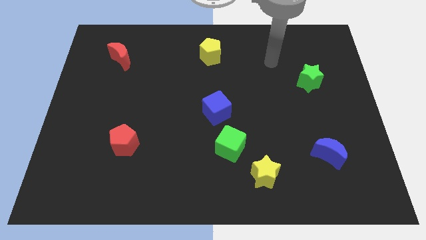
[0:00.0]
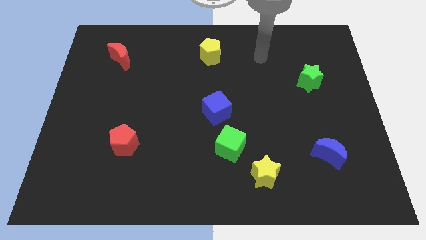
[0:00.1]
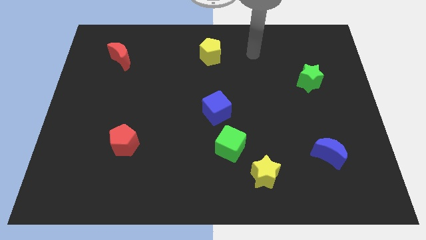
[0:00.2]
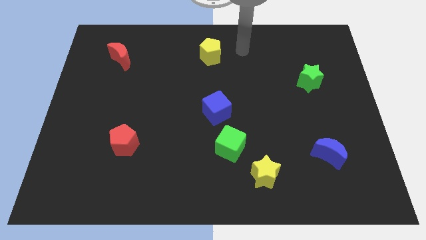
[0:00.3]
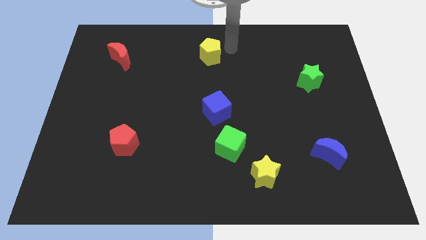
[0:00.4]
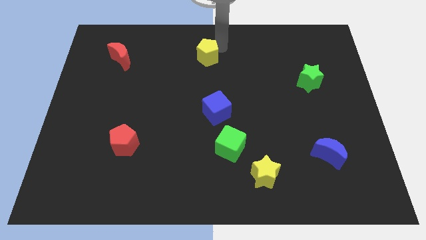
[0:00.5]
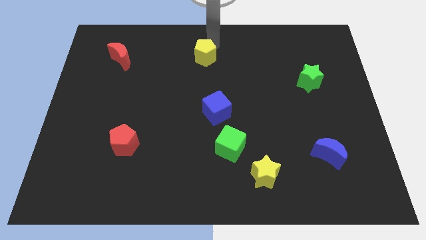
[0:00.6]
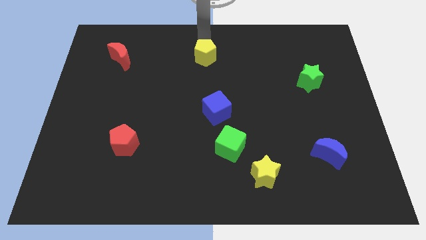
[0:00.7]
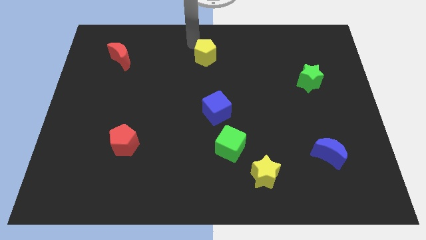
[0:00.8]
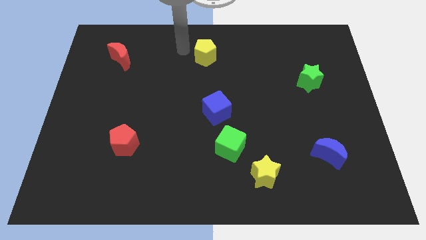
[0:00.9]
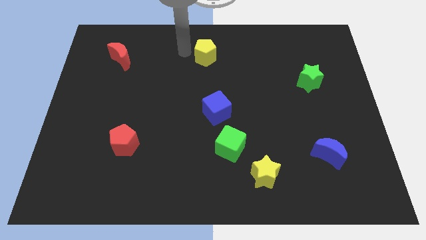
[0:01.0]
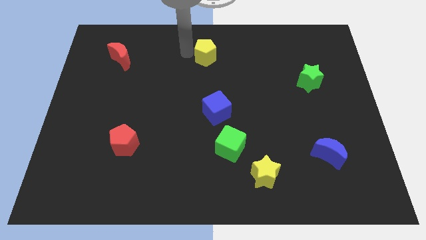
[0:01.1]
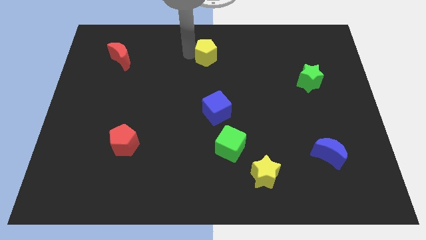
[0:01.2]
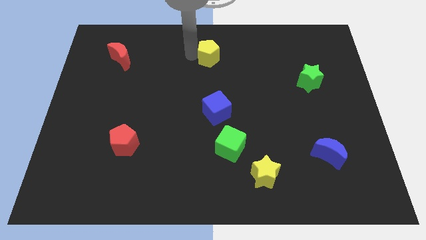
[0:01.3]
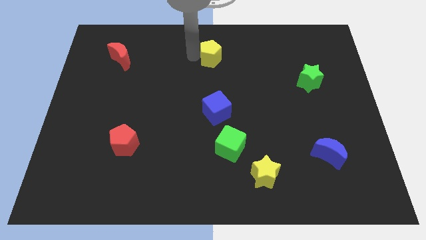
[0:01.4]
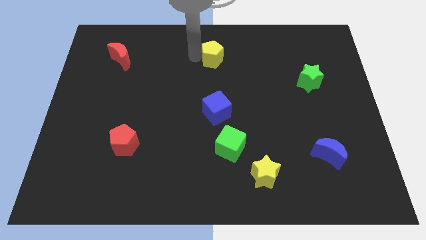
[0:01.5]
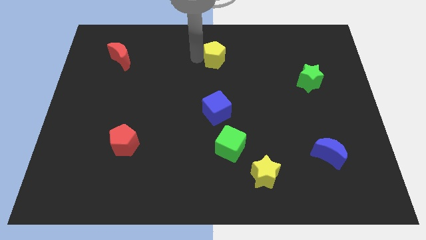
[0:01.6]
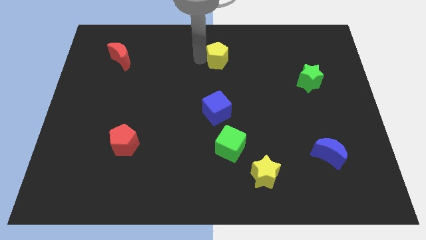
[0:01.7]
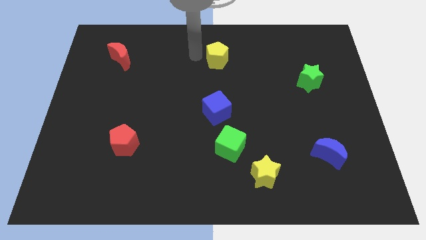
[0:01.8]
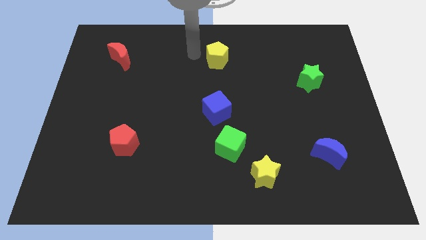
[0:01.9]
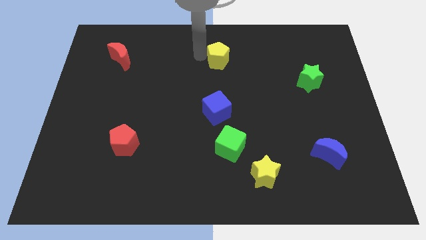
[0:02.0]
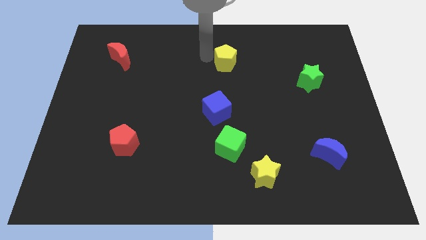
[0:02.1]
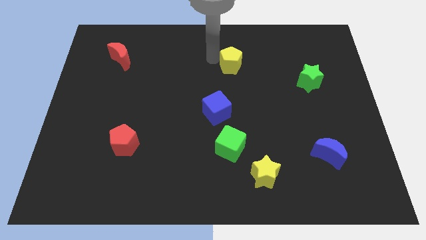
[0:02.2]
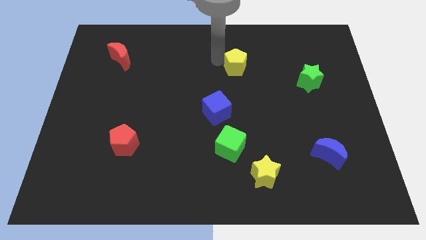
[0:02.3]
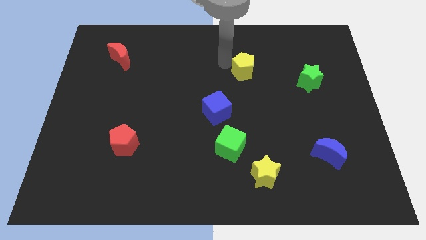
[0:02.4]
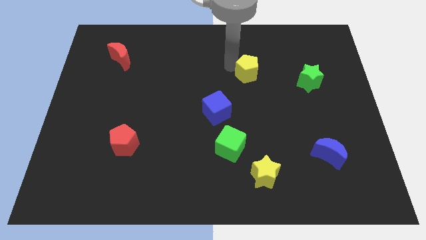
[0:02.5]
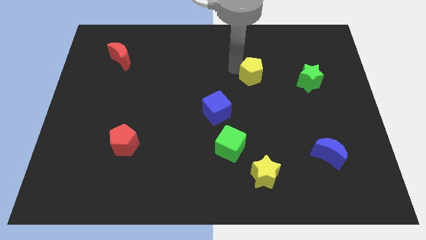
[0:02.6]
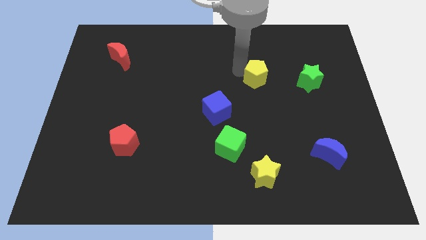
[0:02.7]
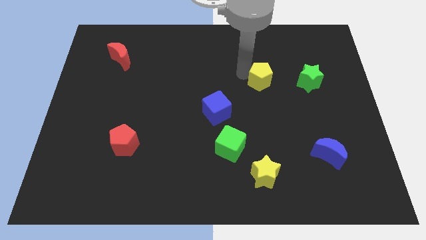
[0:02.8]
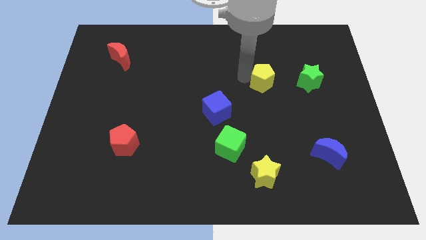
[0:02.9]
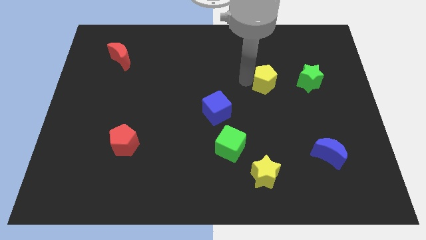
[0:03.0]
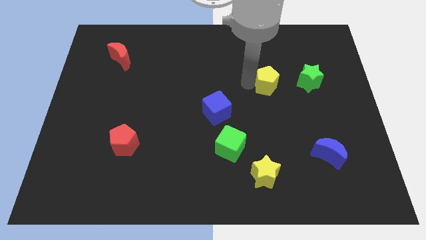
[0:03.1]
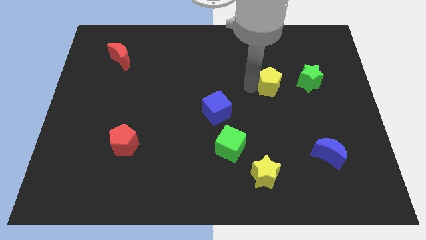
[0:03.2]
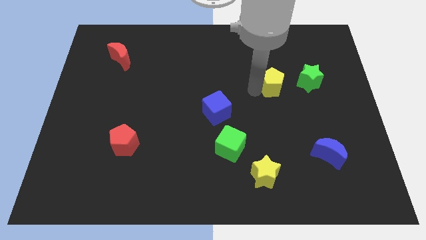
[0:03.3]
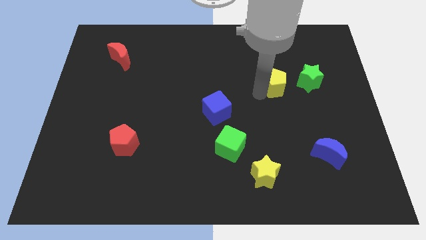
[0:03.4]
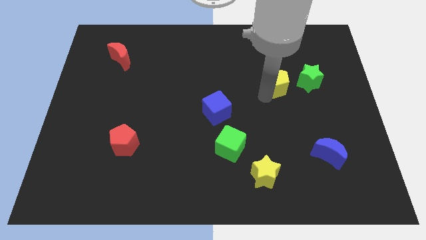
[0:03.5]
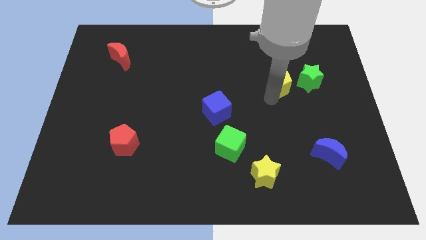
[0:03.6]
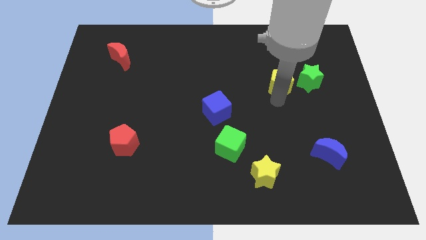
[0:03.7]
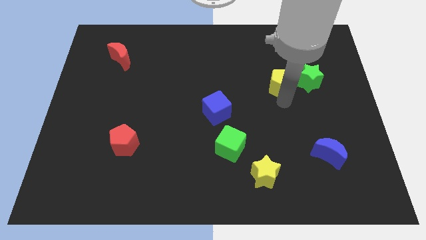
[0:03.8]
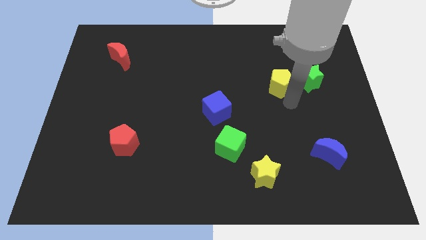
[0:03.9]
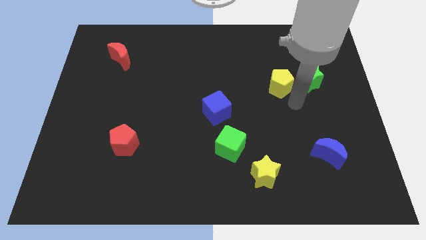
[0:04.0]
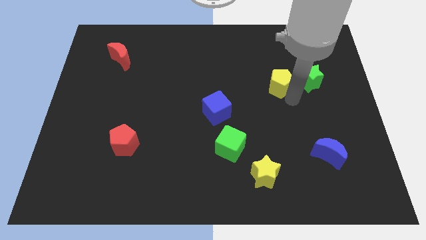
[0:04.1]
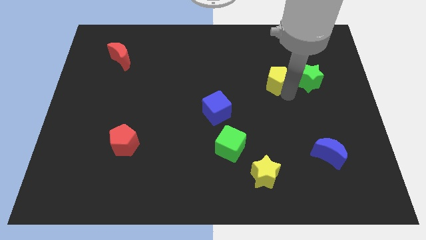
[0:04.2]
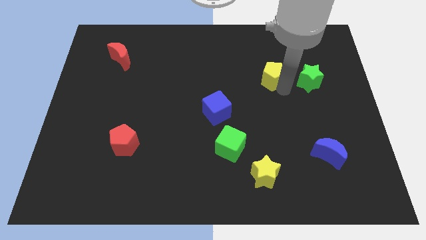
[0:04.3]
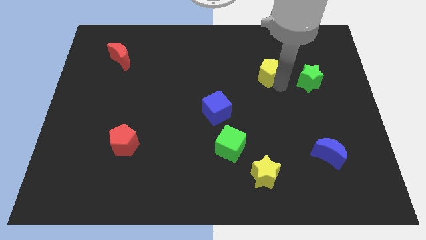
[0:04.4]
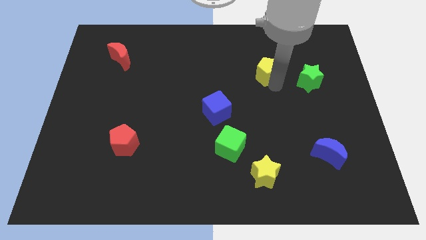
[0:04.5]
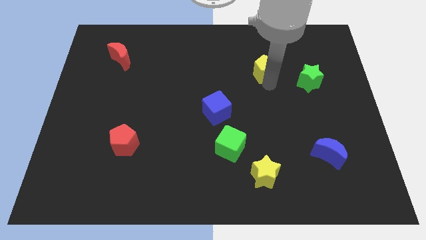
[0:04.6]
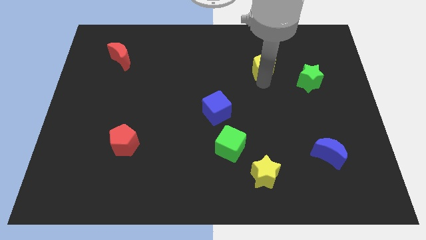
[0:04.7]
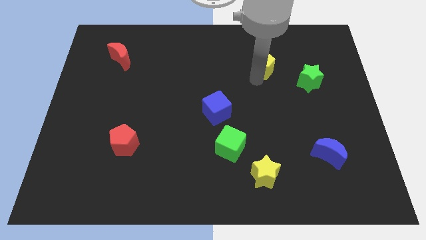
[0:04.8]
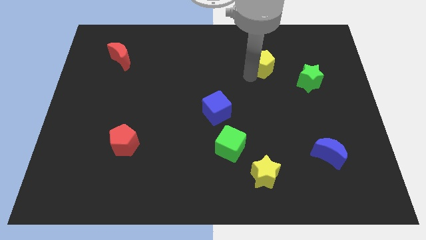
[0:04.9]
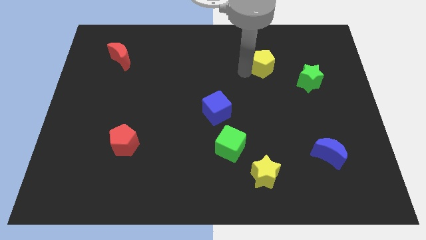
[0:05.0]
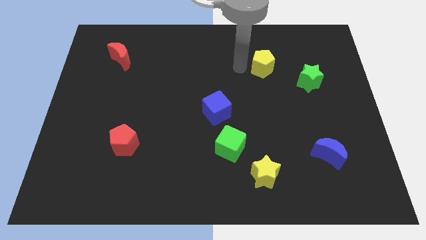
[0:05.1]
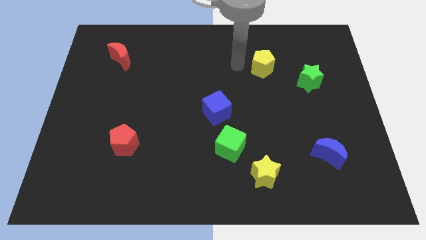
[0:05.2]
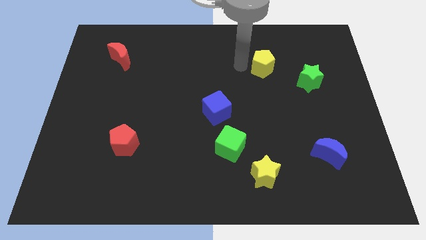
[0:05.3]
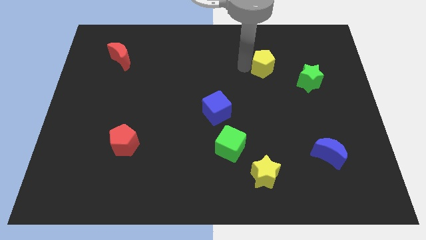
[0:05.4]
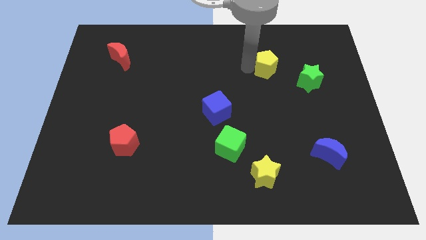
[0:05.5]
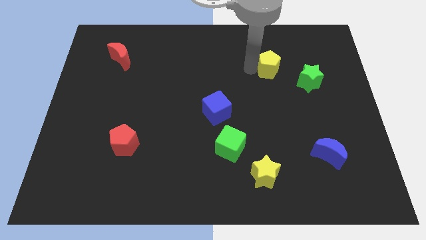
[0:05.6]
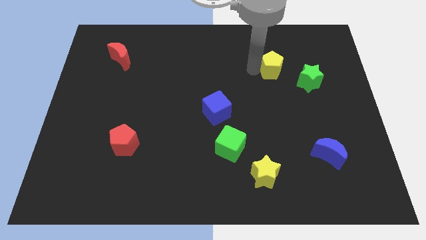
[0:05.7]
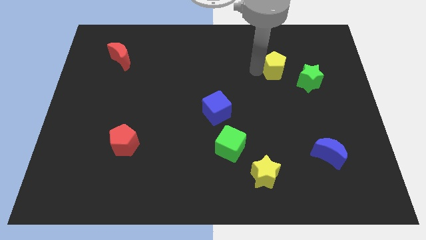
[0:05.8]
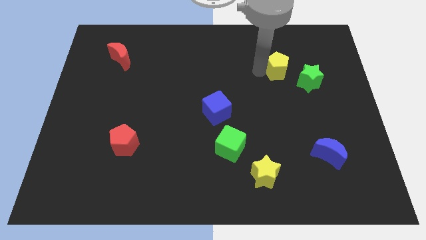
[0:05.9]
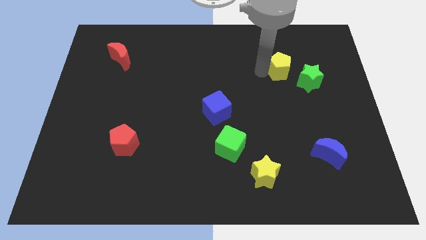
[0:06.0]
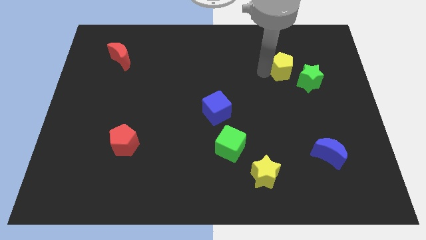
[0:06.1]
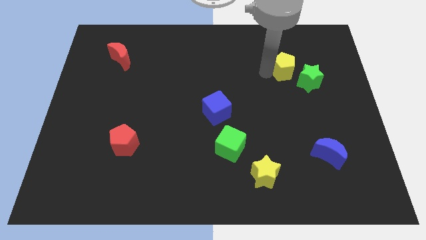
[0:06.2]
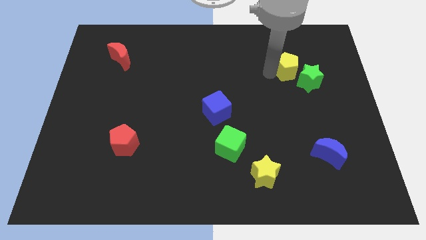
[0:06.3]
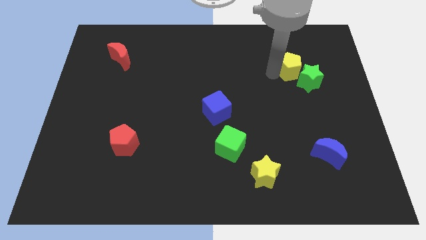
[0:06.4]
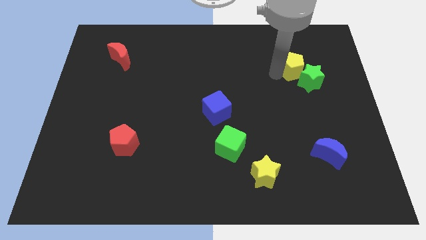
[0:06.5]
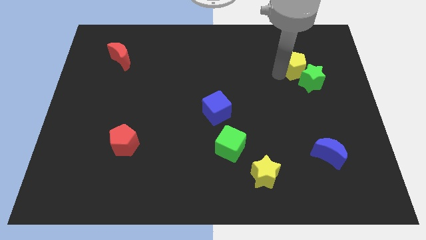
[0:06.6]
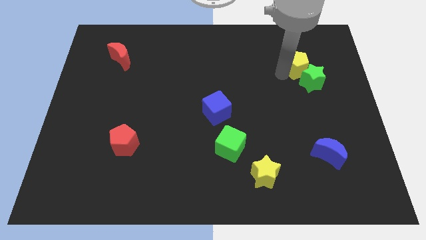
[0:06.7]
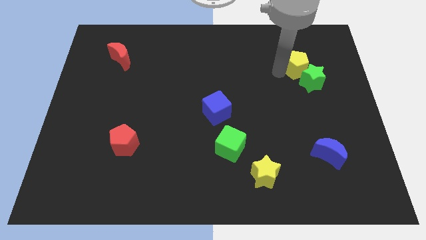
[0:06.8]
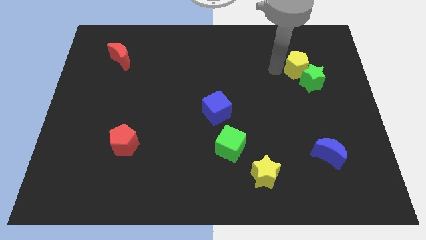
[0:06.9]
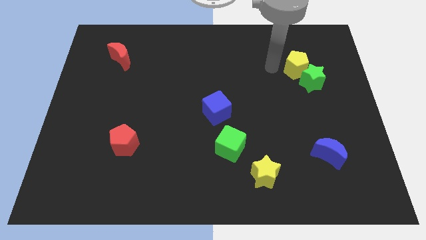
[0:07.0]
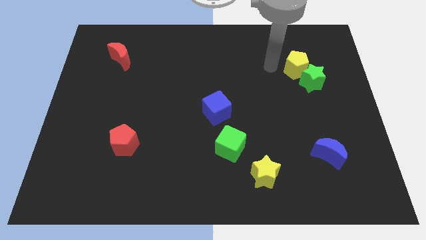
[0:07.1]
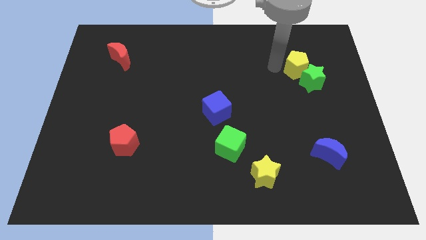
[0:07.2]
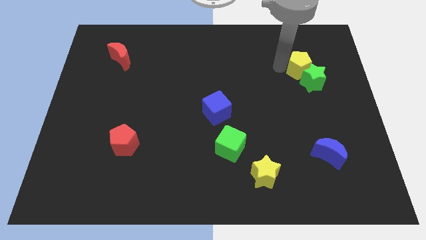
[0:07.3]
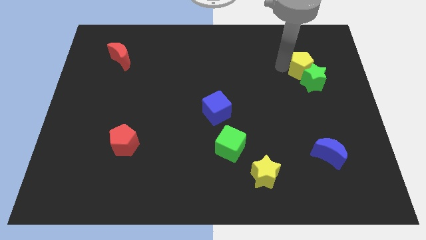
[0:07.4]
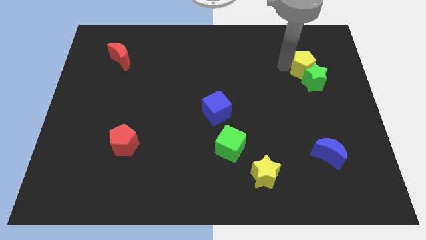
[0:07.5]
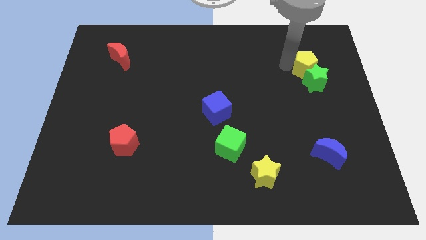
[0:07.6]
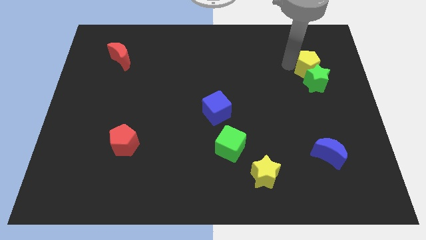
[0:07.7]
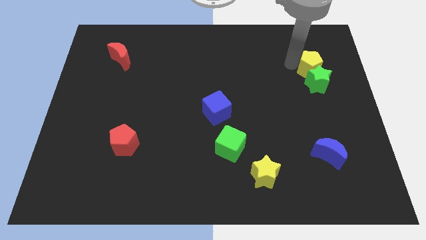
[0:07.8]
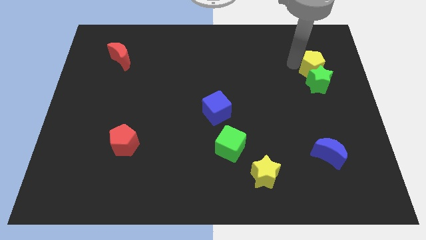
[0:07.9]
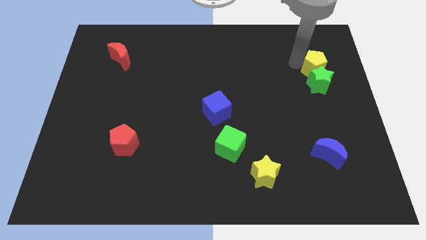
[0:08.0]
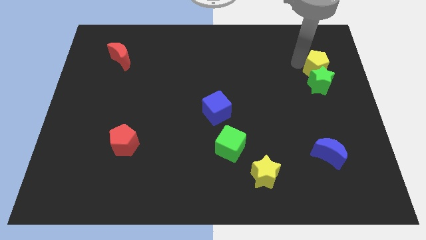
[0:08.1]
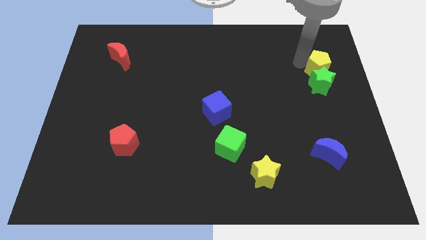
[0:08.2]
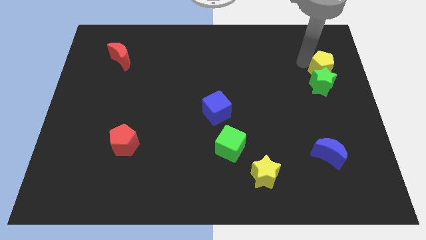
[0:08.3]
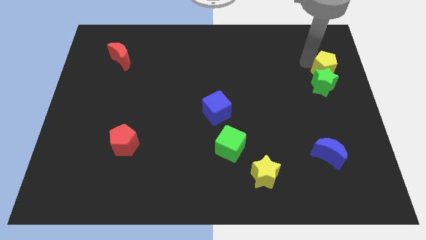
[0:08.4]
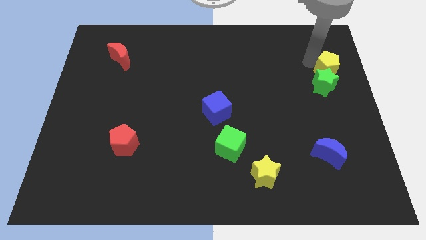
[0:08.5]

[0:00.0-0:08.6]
push the yellow pentagon to the right side of the board
